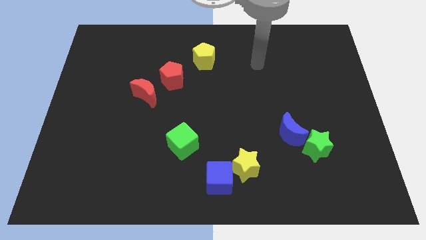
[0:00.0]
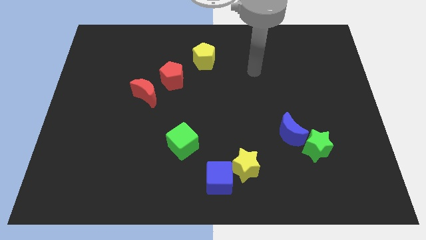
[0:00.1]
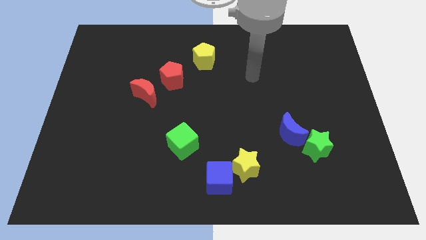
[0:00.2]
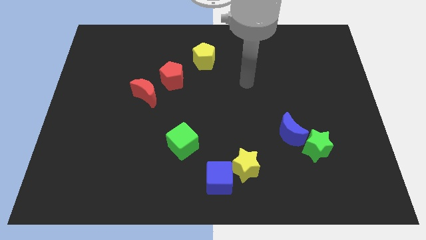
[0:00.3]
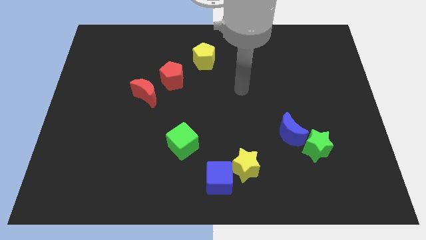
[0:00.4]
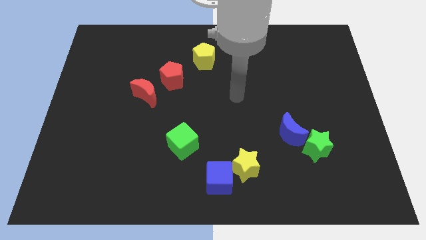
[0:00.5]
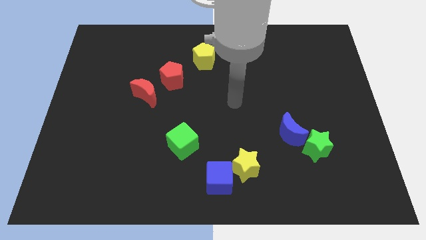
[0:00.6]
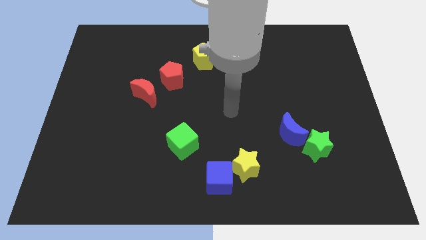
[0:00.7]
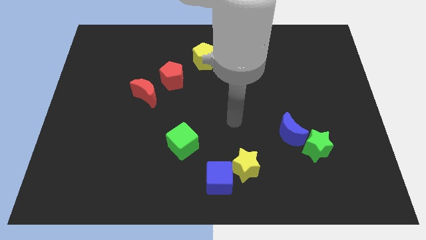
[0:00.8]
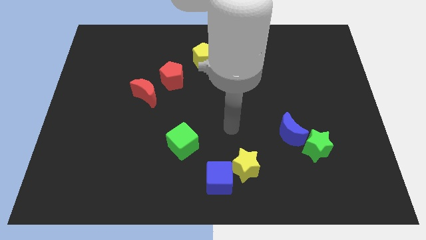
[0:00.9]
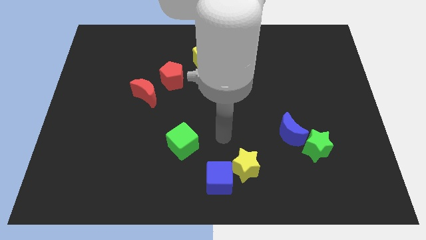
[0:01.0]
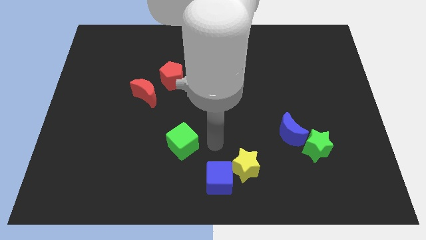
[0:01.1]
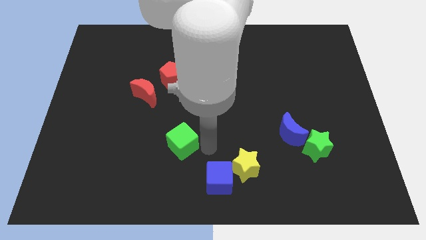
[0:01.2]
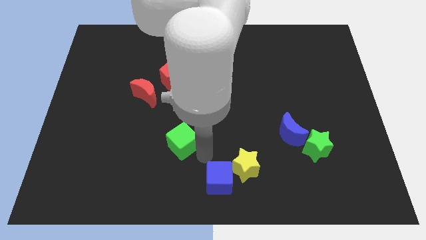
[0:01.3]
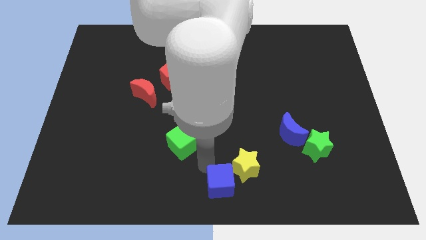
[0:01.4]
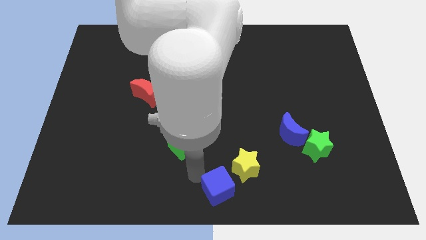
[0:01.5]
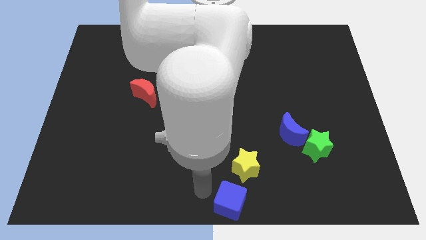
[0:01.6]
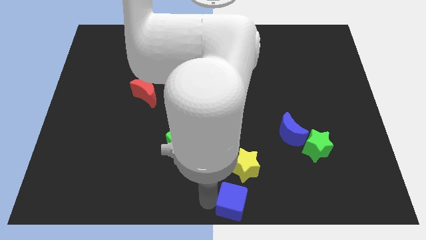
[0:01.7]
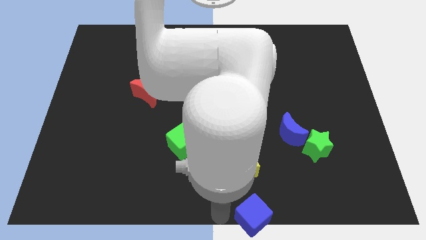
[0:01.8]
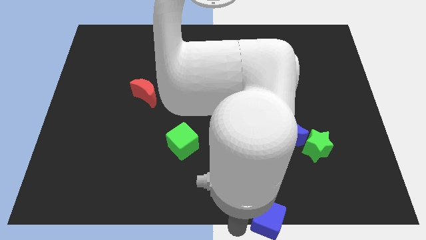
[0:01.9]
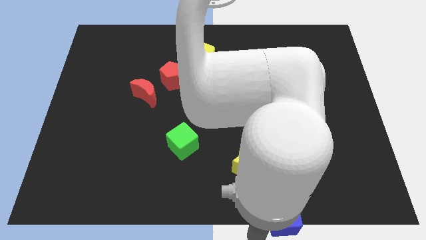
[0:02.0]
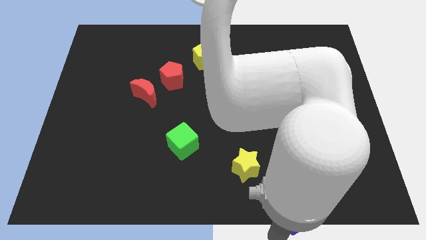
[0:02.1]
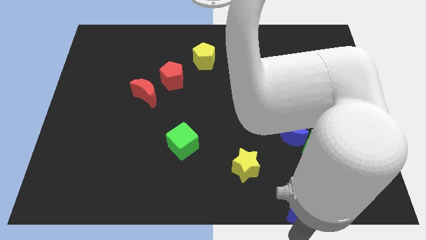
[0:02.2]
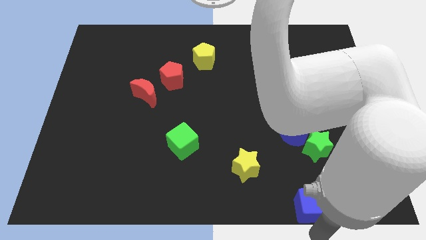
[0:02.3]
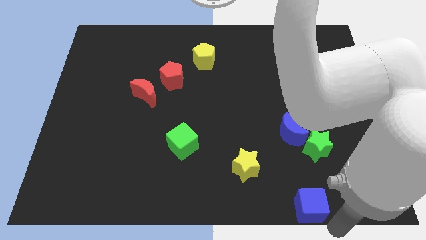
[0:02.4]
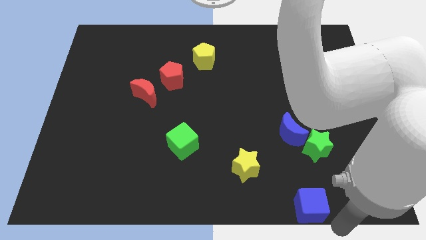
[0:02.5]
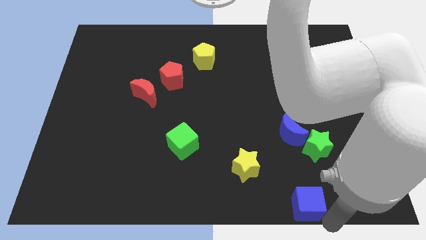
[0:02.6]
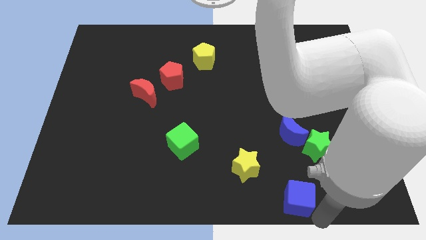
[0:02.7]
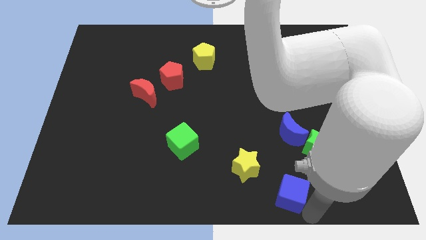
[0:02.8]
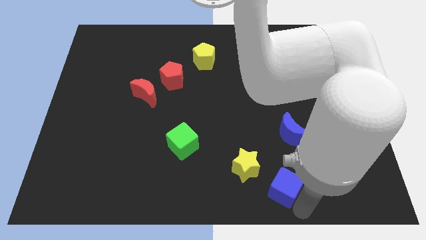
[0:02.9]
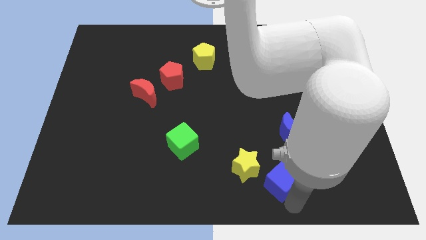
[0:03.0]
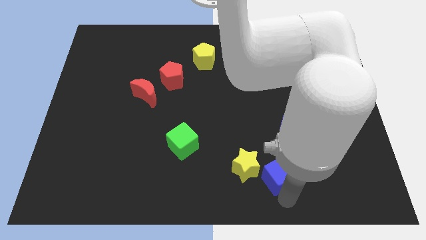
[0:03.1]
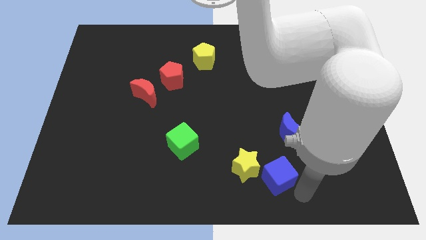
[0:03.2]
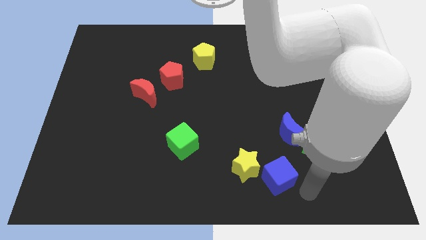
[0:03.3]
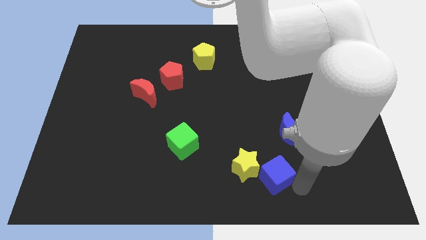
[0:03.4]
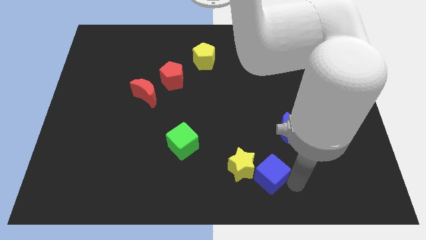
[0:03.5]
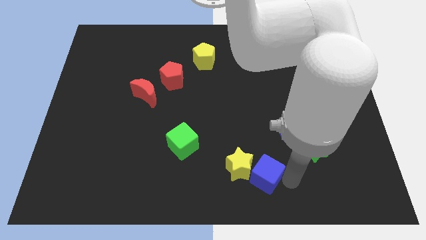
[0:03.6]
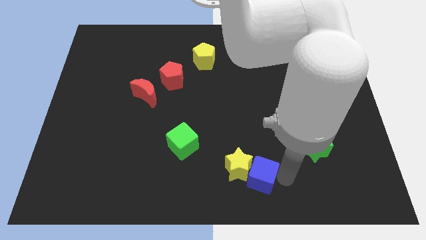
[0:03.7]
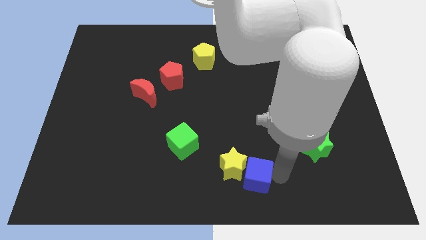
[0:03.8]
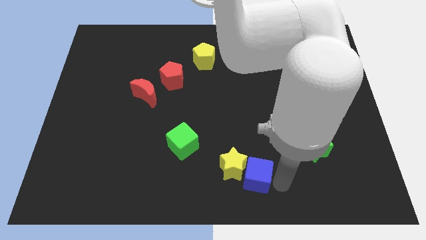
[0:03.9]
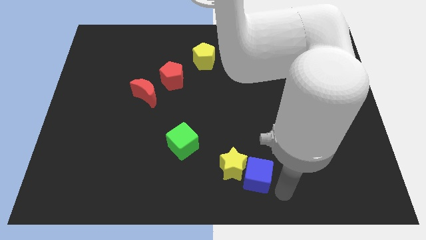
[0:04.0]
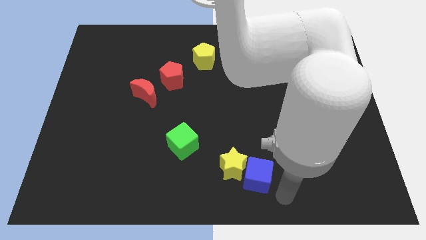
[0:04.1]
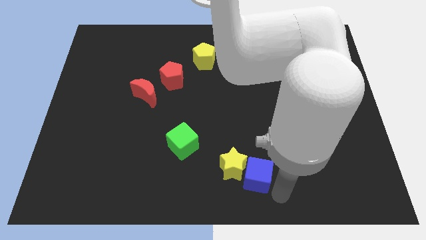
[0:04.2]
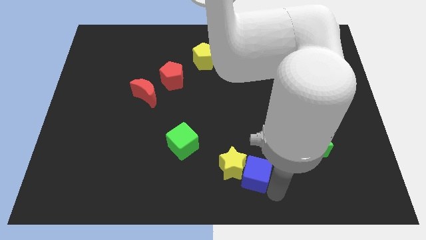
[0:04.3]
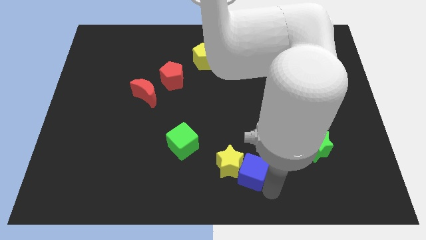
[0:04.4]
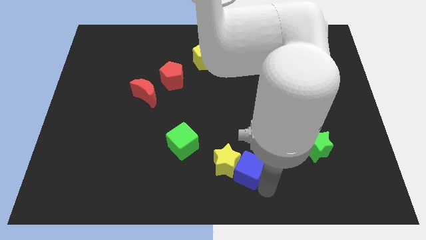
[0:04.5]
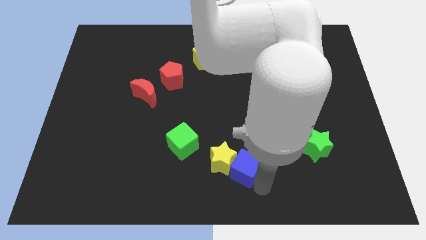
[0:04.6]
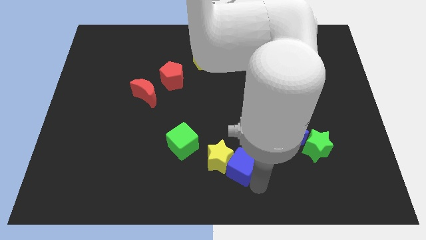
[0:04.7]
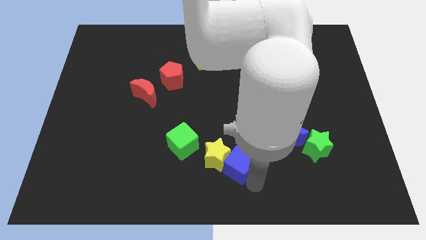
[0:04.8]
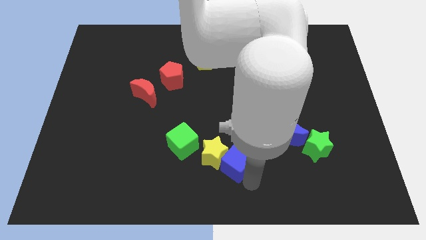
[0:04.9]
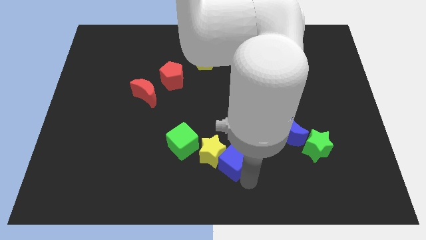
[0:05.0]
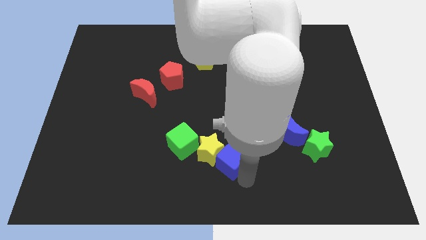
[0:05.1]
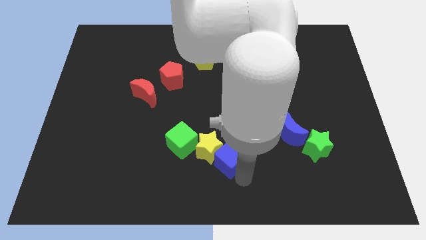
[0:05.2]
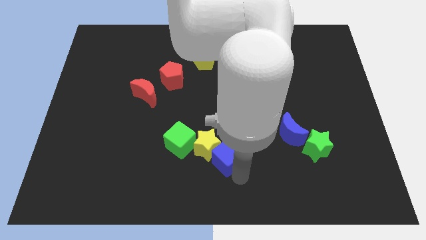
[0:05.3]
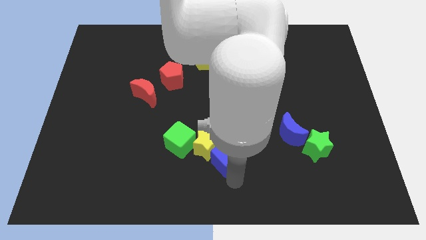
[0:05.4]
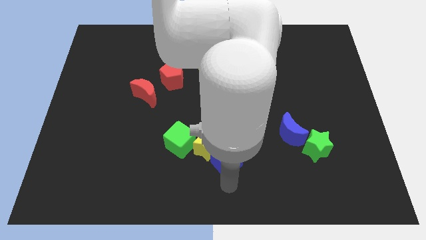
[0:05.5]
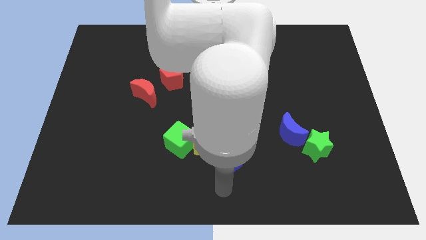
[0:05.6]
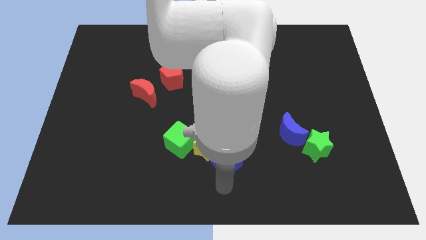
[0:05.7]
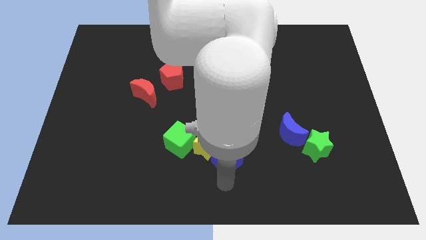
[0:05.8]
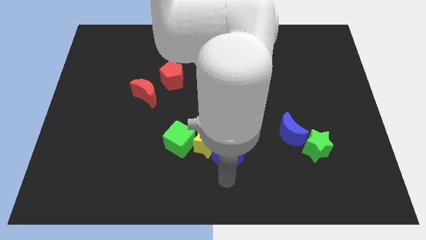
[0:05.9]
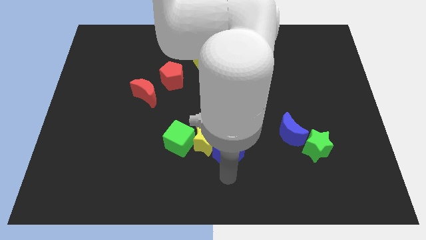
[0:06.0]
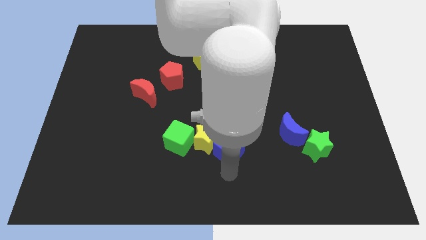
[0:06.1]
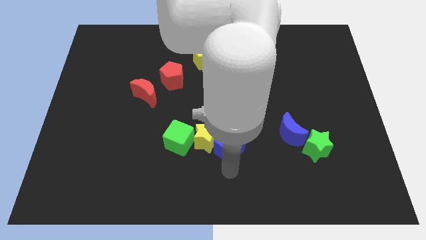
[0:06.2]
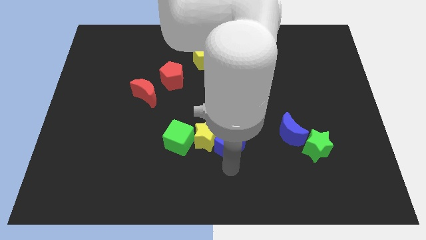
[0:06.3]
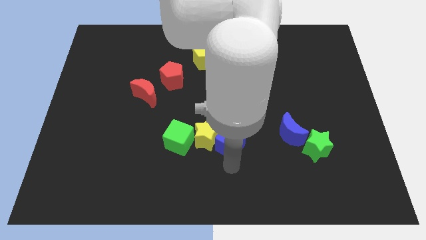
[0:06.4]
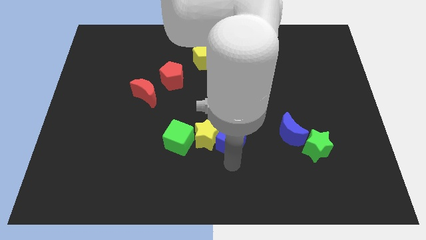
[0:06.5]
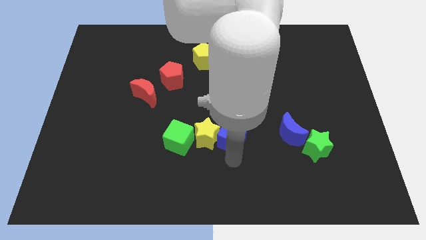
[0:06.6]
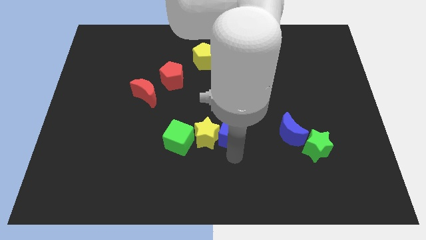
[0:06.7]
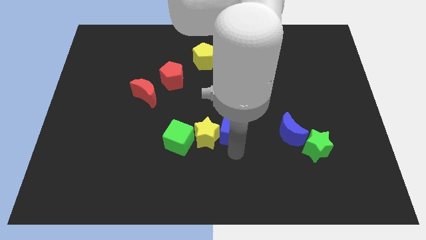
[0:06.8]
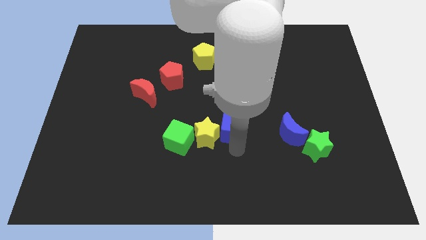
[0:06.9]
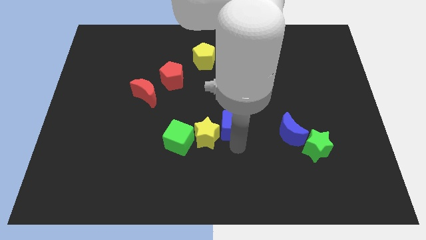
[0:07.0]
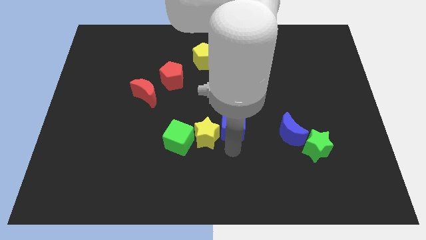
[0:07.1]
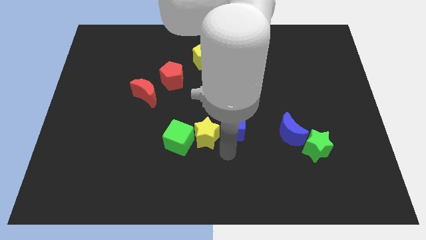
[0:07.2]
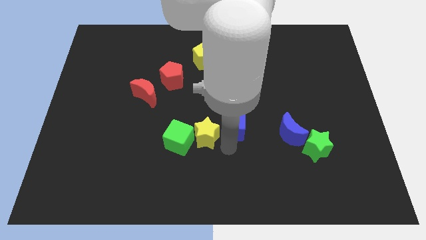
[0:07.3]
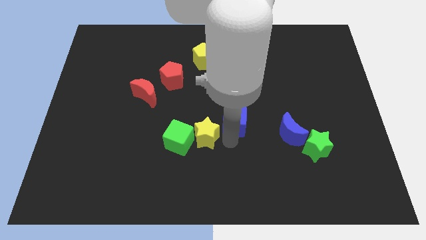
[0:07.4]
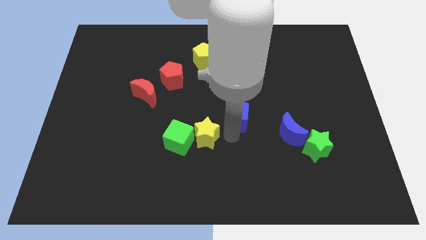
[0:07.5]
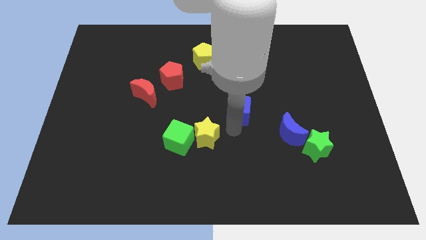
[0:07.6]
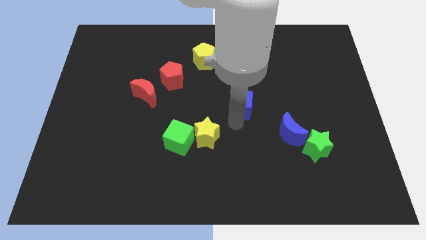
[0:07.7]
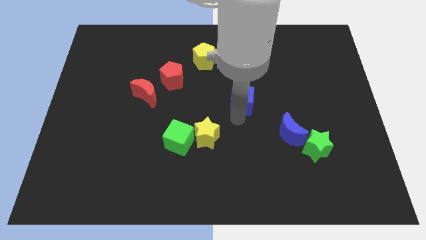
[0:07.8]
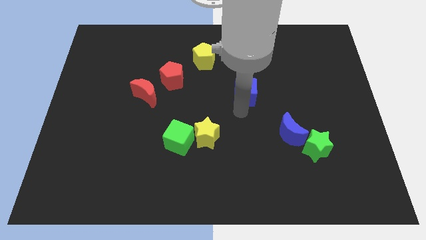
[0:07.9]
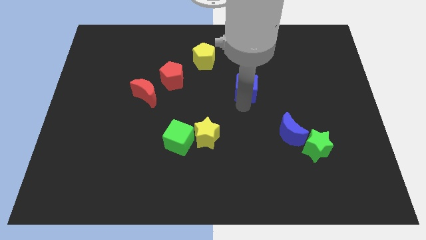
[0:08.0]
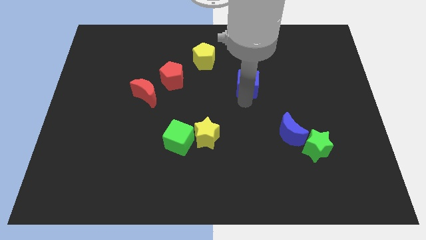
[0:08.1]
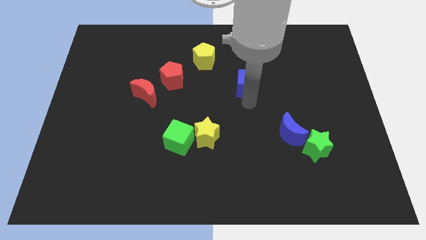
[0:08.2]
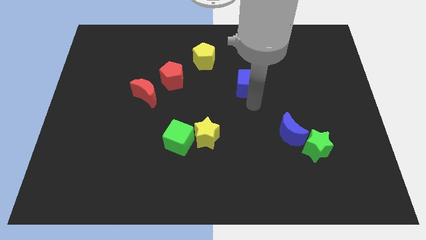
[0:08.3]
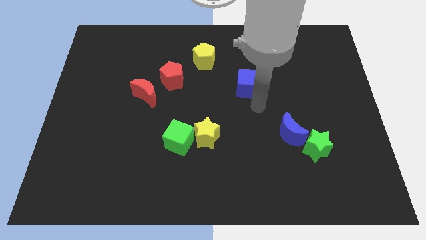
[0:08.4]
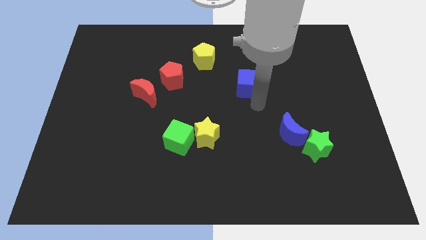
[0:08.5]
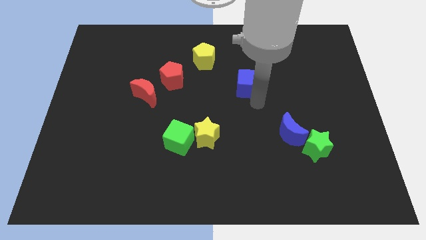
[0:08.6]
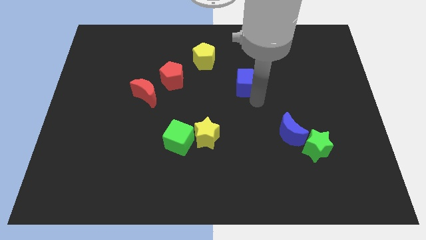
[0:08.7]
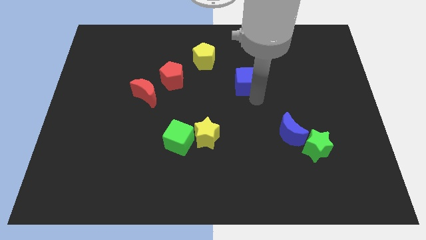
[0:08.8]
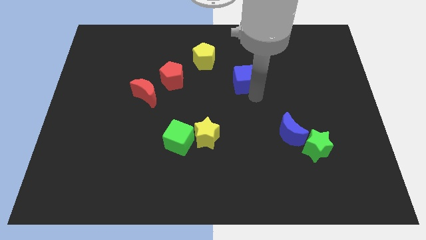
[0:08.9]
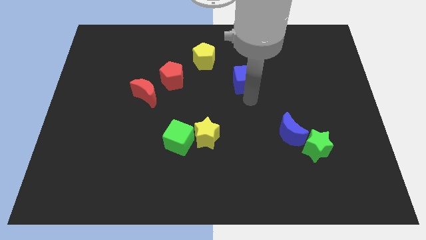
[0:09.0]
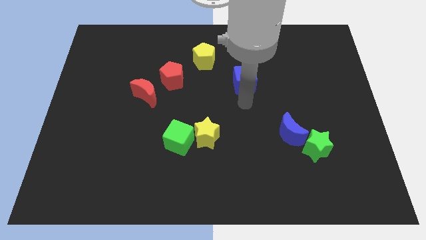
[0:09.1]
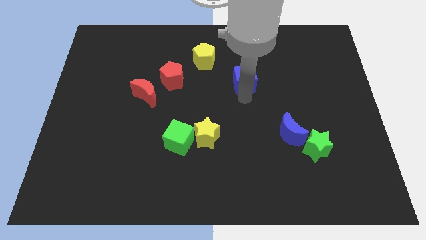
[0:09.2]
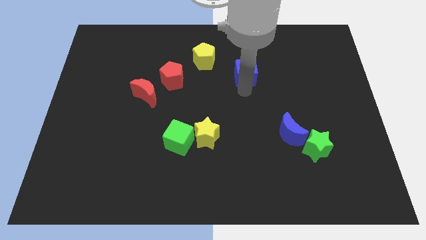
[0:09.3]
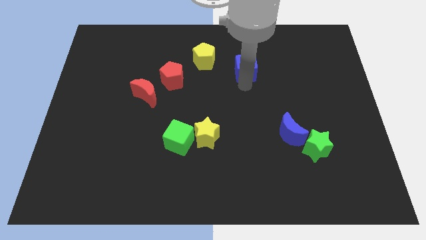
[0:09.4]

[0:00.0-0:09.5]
move the blue cube right of the yellow pentagon
